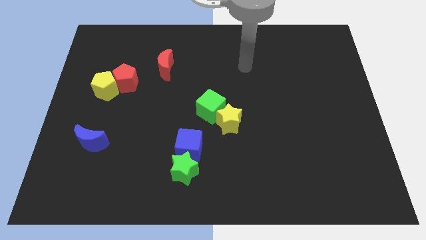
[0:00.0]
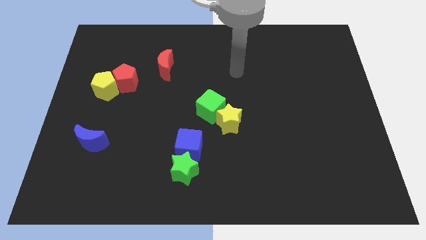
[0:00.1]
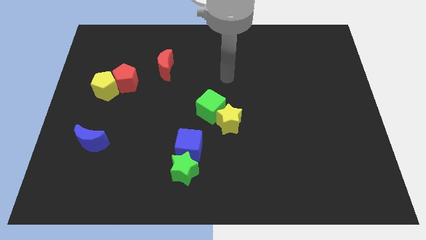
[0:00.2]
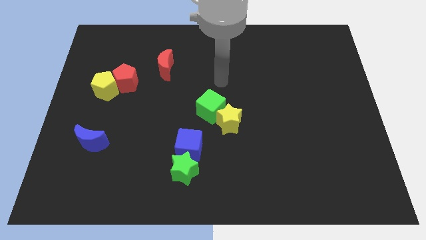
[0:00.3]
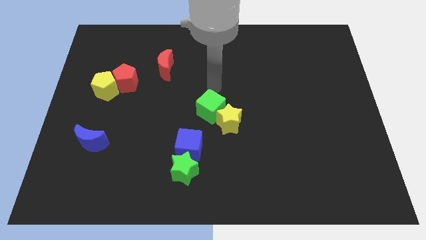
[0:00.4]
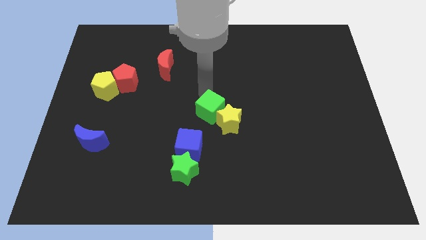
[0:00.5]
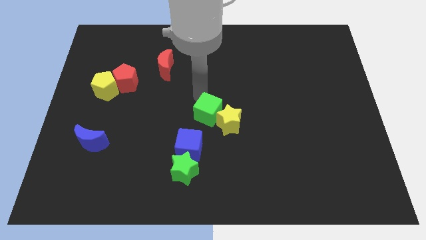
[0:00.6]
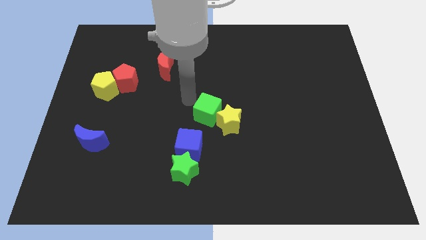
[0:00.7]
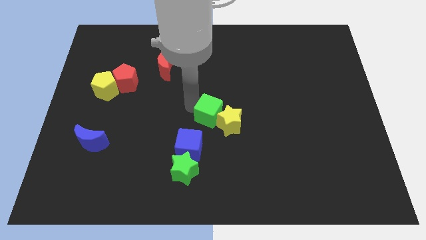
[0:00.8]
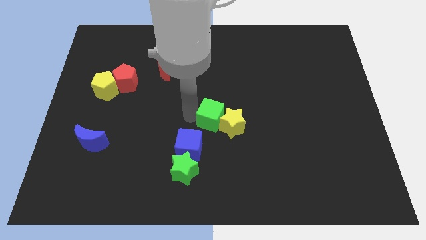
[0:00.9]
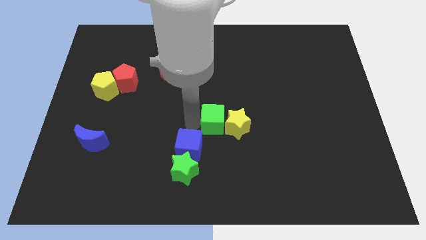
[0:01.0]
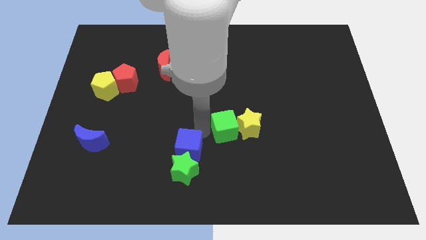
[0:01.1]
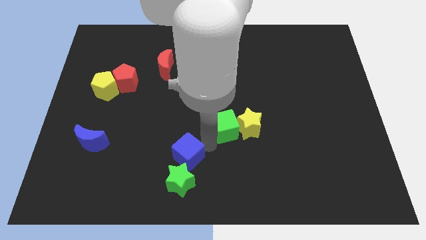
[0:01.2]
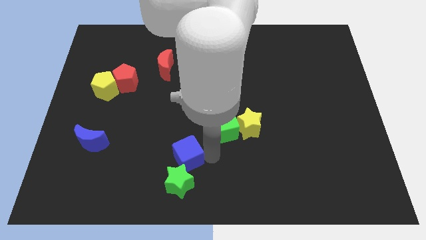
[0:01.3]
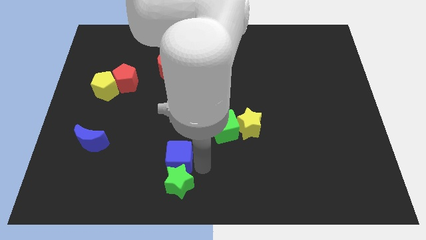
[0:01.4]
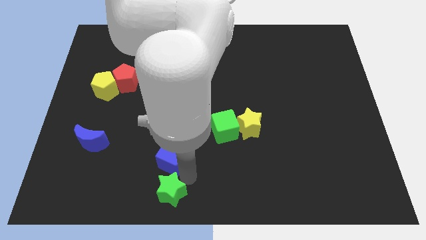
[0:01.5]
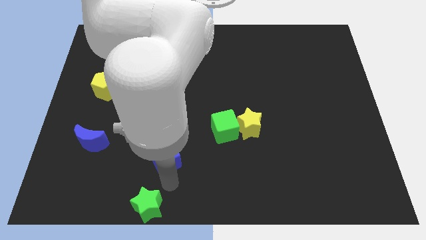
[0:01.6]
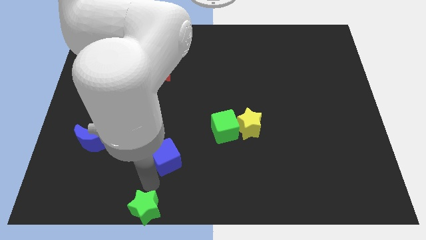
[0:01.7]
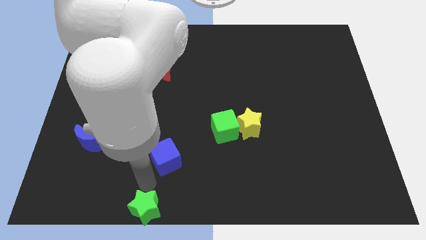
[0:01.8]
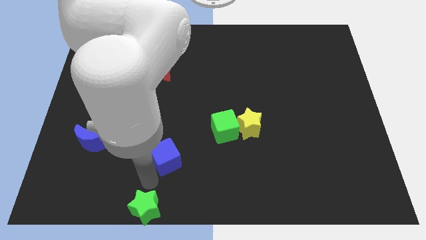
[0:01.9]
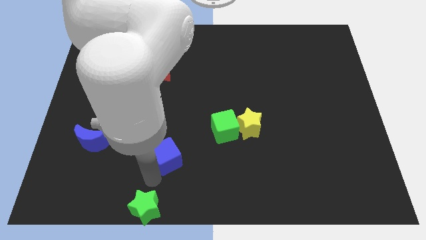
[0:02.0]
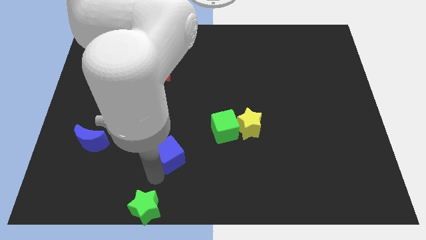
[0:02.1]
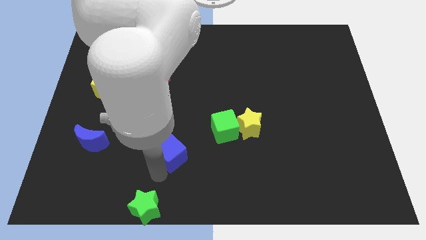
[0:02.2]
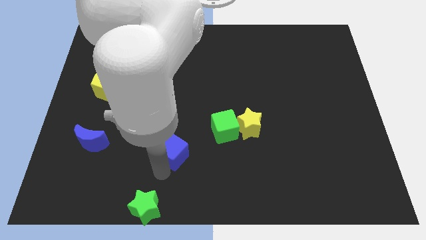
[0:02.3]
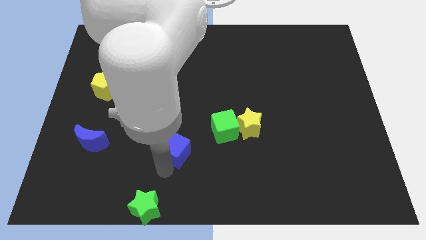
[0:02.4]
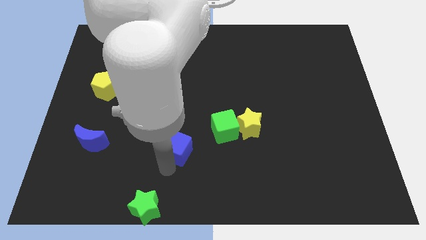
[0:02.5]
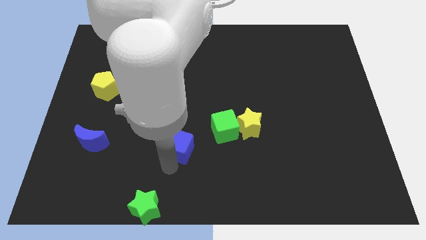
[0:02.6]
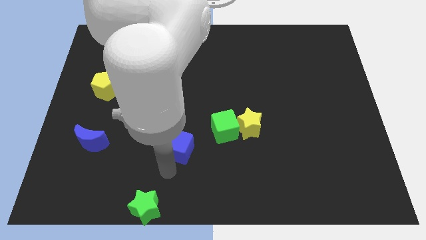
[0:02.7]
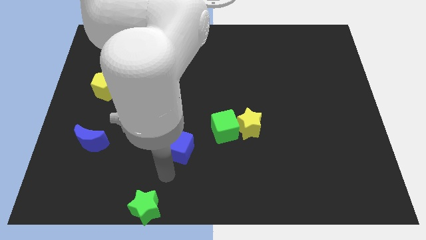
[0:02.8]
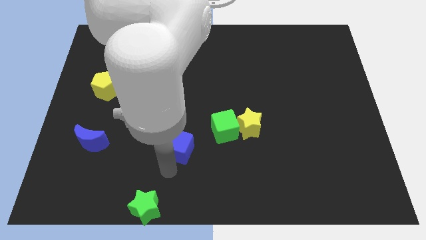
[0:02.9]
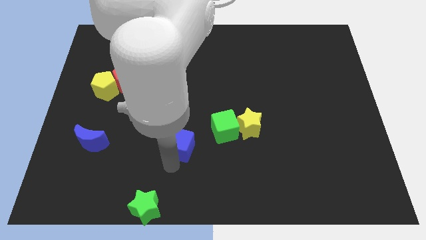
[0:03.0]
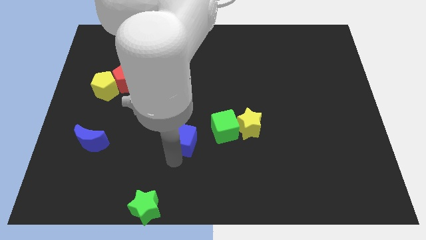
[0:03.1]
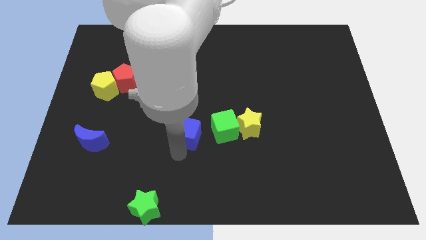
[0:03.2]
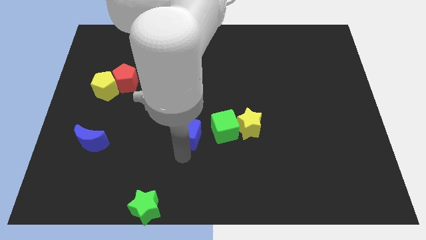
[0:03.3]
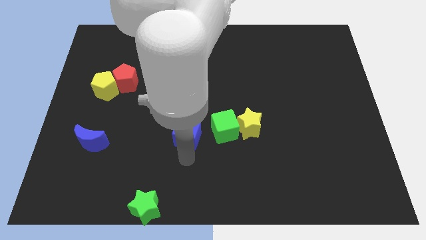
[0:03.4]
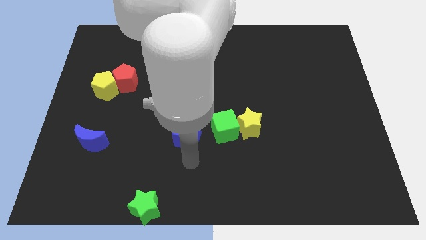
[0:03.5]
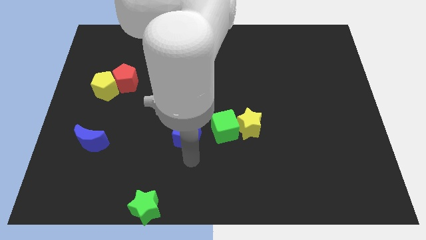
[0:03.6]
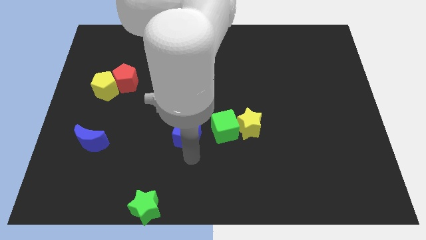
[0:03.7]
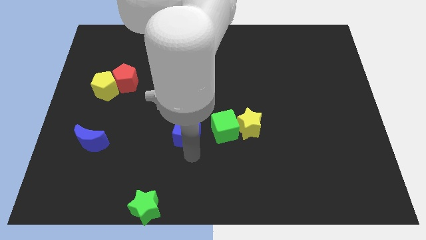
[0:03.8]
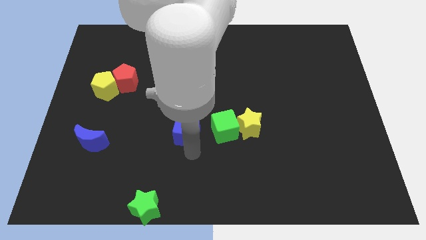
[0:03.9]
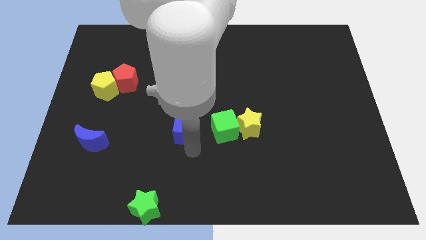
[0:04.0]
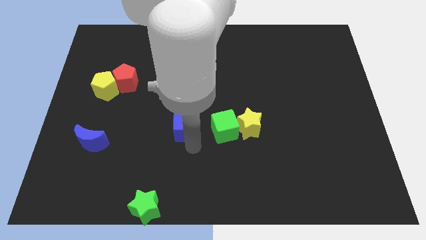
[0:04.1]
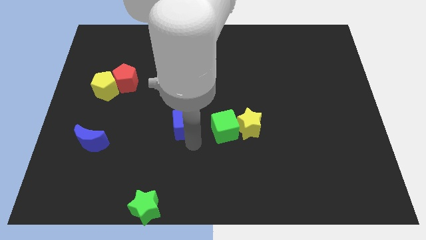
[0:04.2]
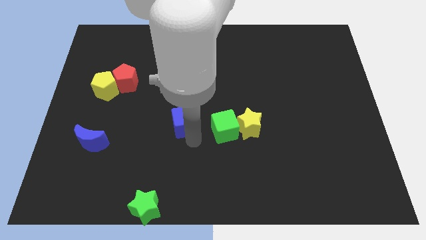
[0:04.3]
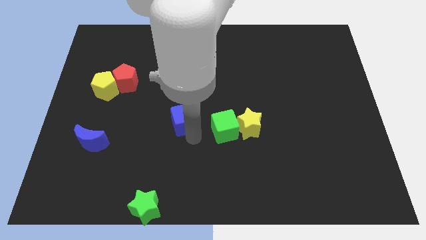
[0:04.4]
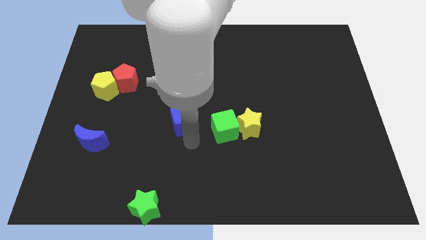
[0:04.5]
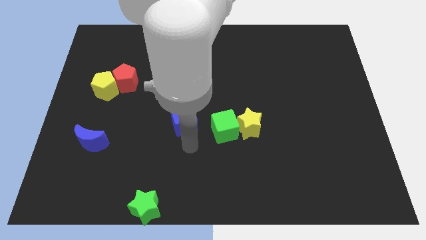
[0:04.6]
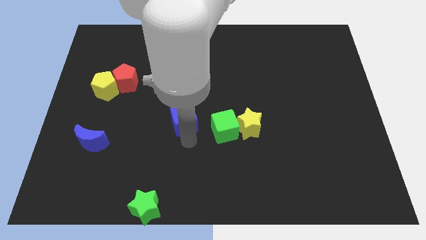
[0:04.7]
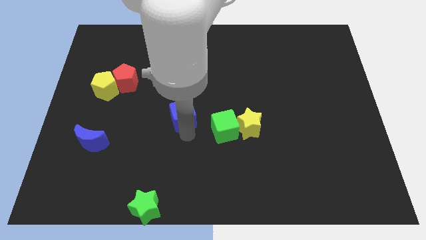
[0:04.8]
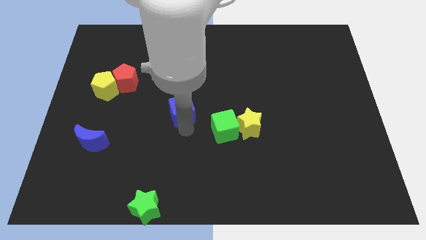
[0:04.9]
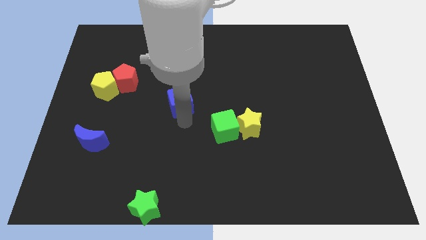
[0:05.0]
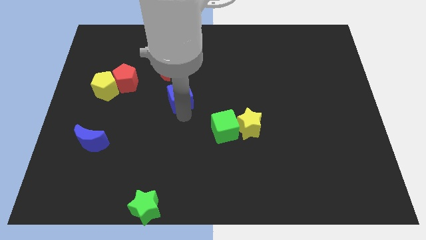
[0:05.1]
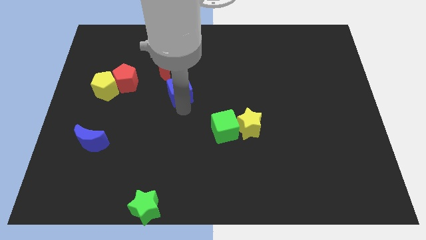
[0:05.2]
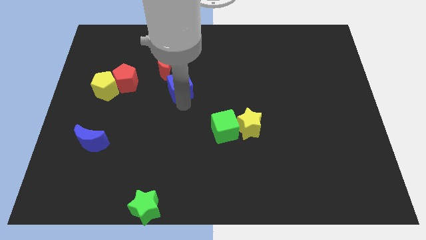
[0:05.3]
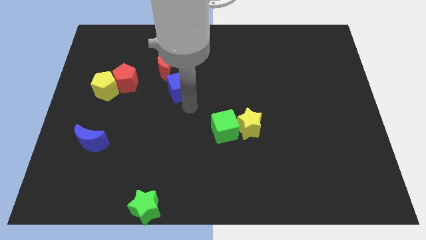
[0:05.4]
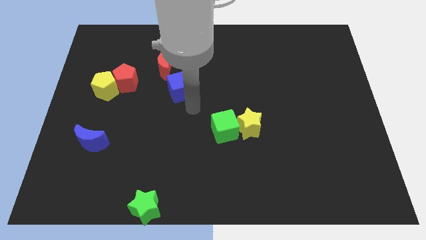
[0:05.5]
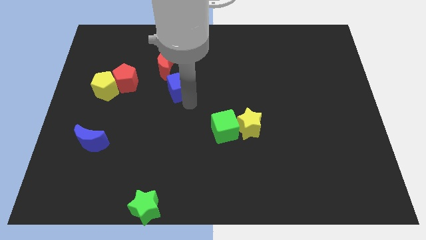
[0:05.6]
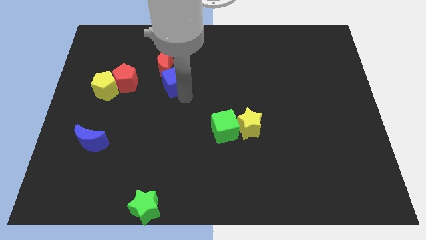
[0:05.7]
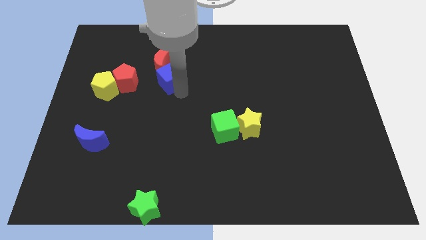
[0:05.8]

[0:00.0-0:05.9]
push the blue cube towards the red moon

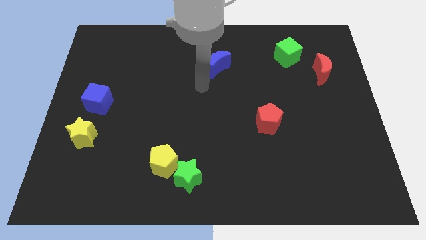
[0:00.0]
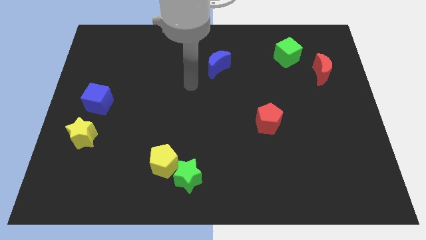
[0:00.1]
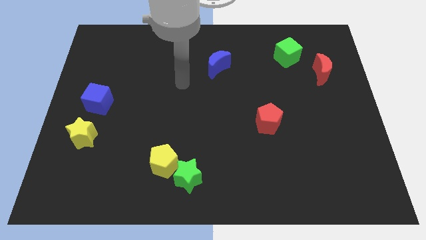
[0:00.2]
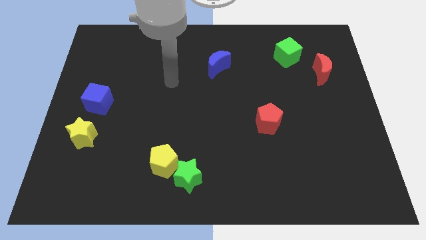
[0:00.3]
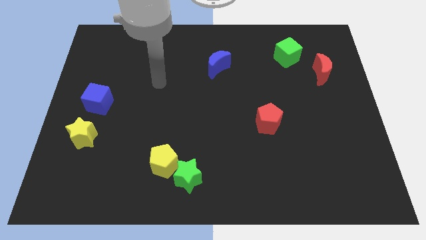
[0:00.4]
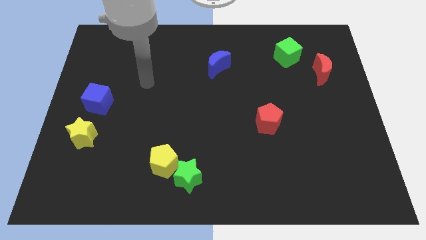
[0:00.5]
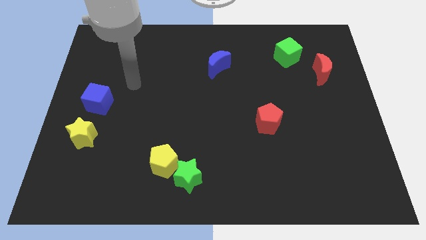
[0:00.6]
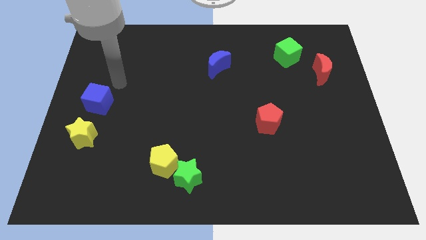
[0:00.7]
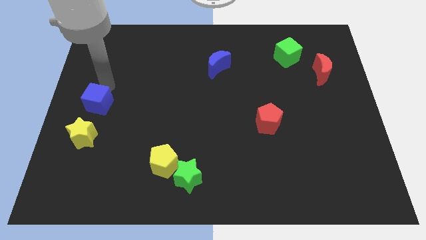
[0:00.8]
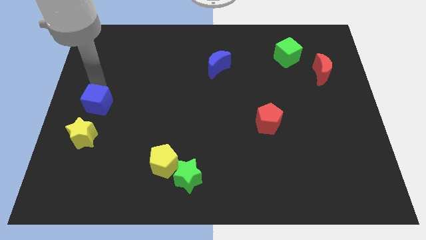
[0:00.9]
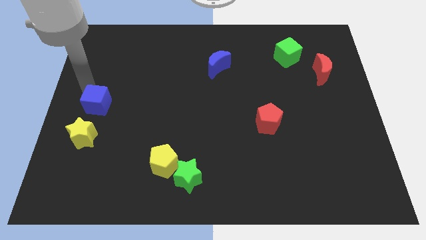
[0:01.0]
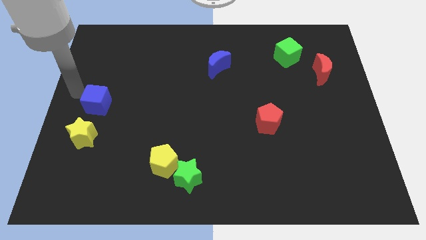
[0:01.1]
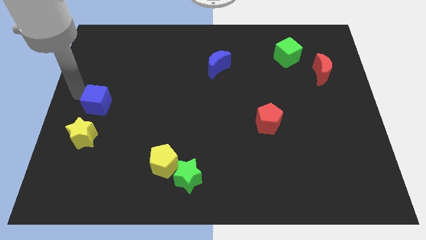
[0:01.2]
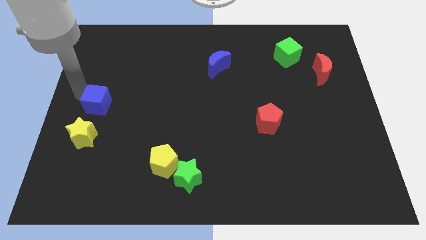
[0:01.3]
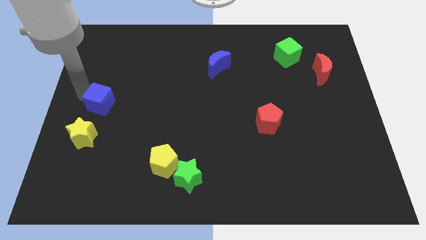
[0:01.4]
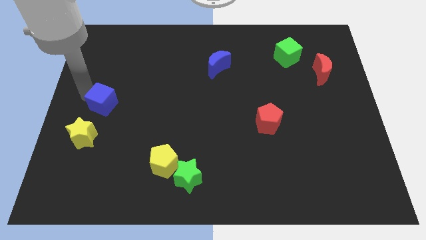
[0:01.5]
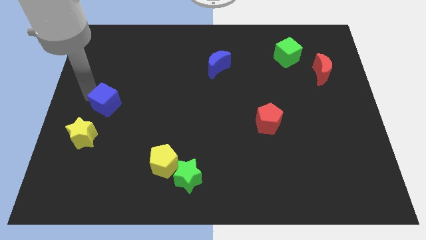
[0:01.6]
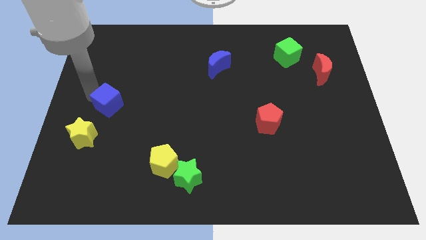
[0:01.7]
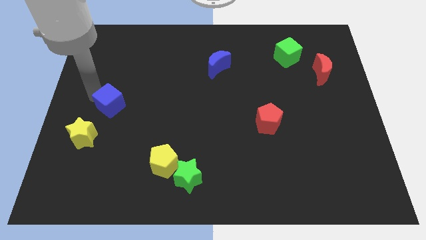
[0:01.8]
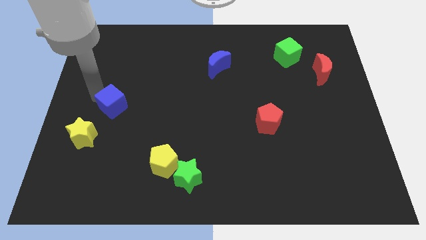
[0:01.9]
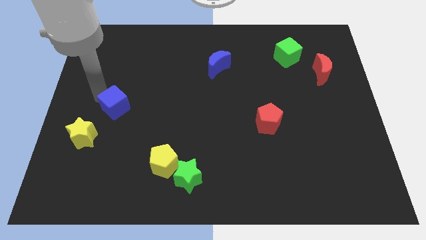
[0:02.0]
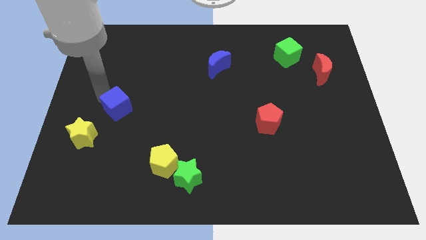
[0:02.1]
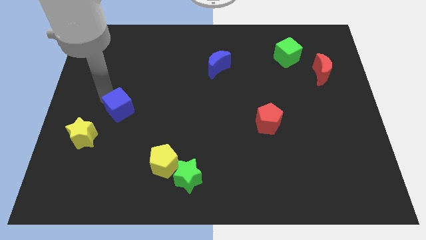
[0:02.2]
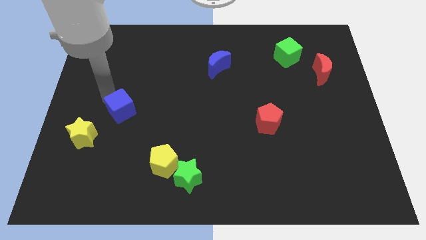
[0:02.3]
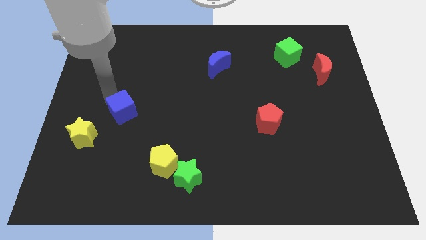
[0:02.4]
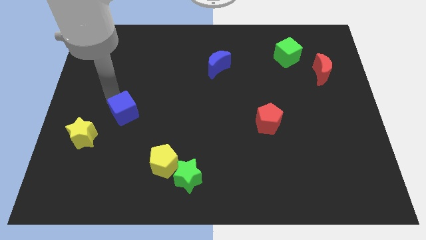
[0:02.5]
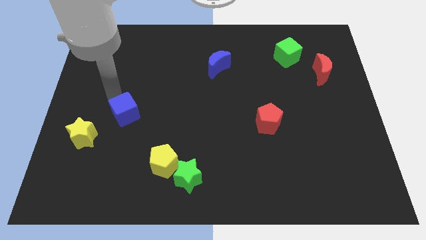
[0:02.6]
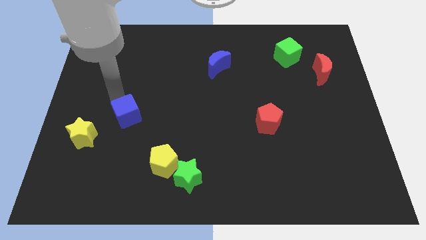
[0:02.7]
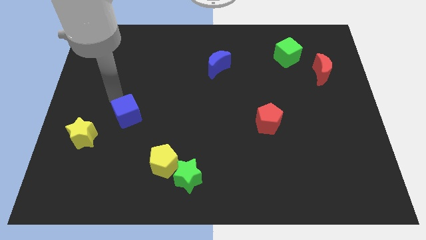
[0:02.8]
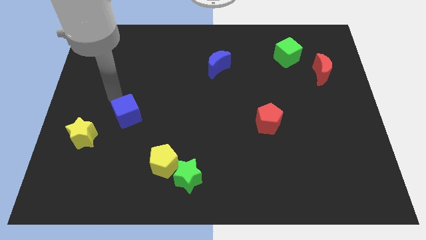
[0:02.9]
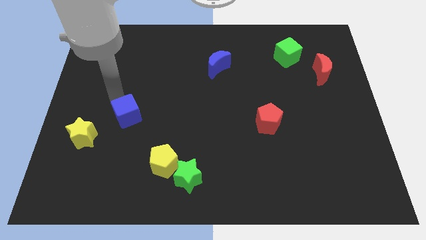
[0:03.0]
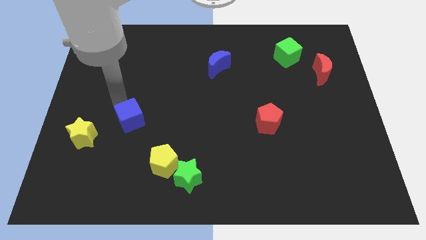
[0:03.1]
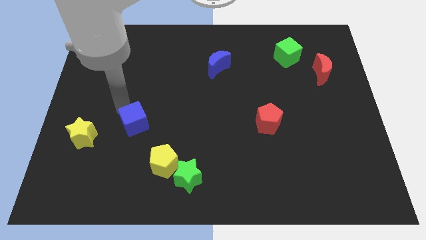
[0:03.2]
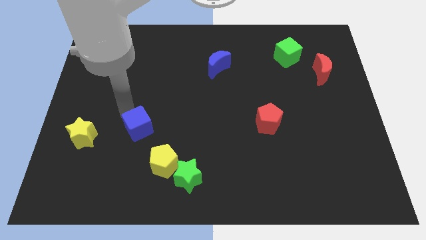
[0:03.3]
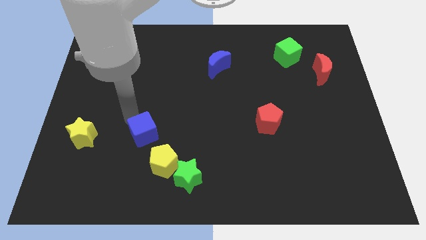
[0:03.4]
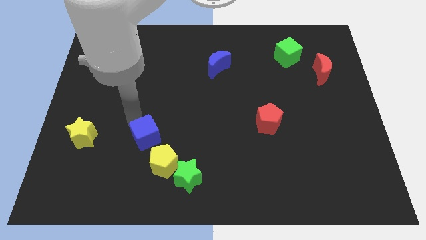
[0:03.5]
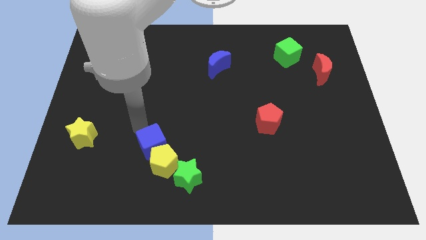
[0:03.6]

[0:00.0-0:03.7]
push the blue cube next to the yellow pentagon
